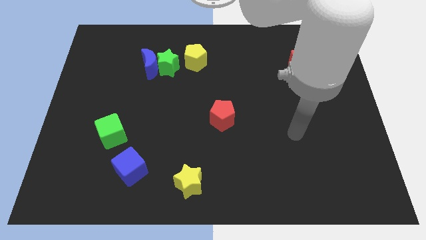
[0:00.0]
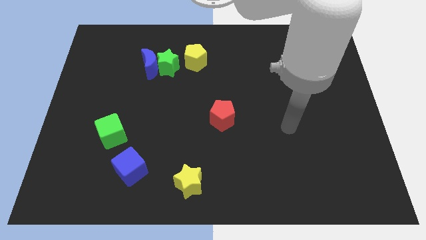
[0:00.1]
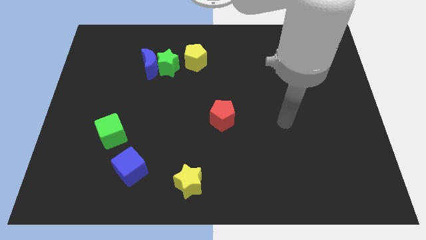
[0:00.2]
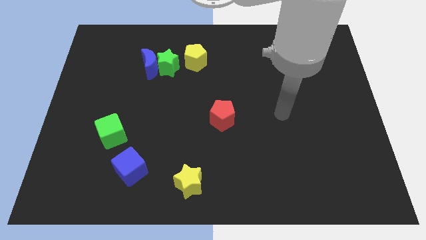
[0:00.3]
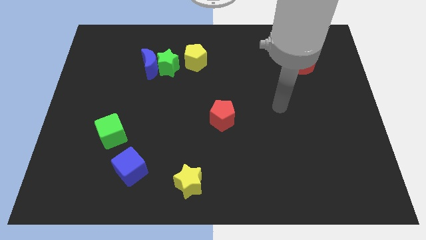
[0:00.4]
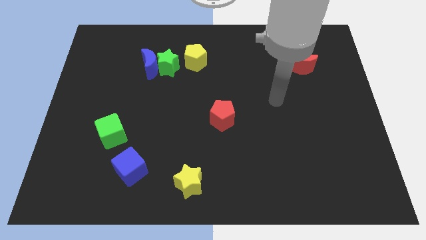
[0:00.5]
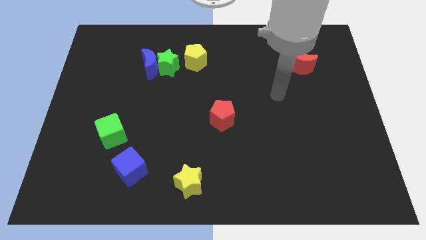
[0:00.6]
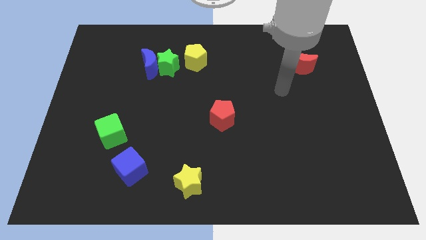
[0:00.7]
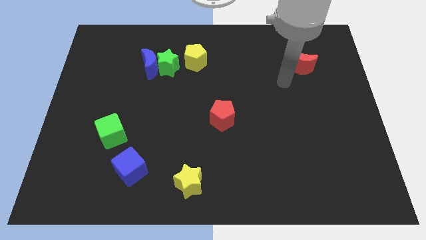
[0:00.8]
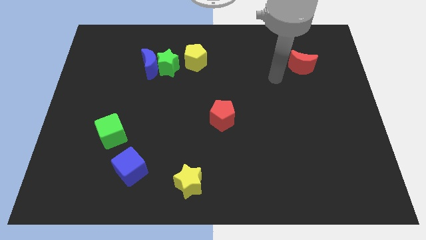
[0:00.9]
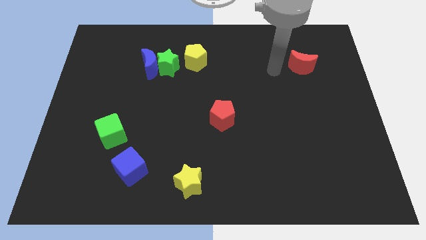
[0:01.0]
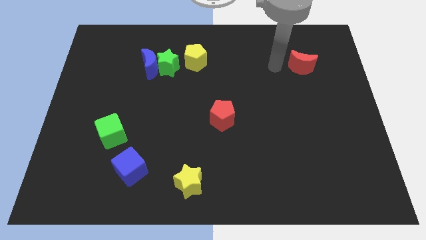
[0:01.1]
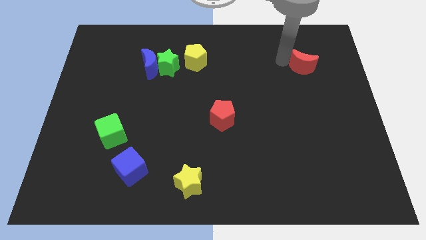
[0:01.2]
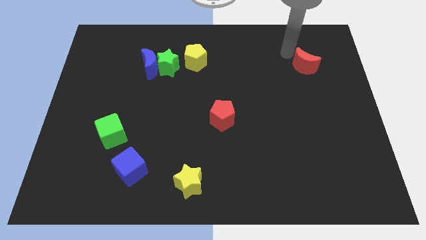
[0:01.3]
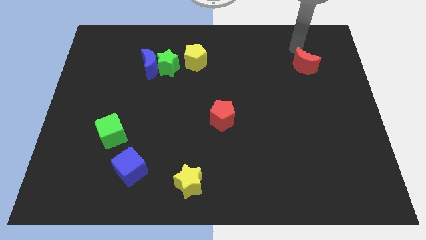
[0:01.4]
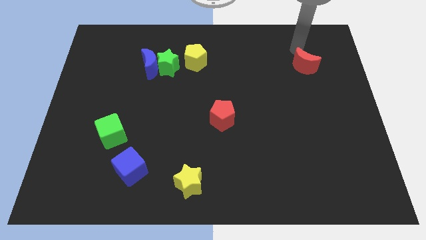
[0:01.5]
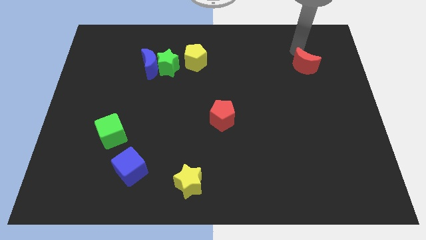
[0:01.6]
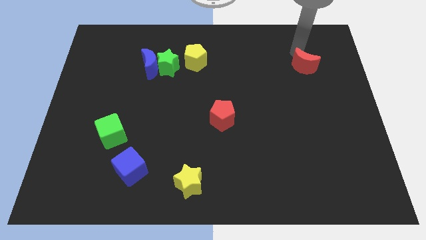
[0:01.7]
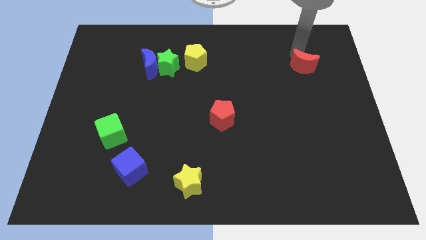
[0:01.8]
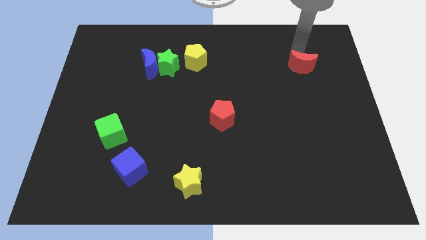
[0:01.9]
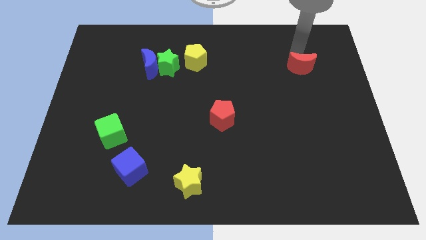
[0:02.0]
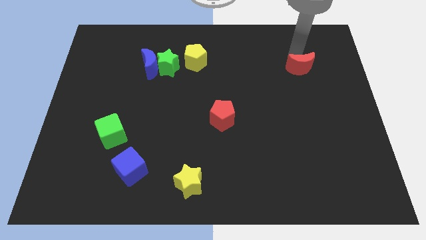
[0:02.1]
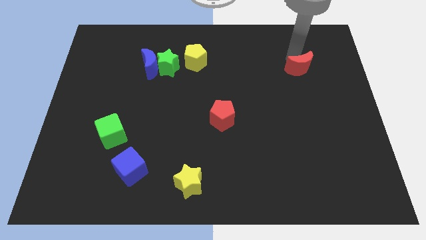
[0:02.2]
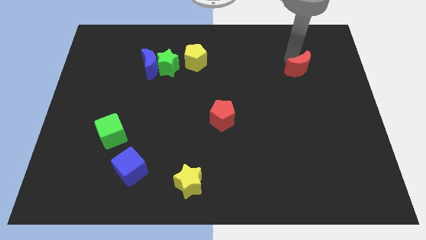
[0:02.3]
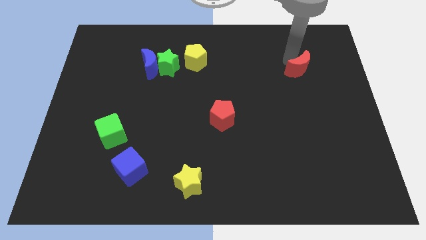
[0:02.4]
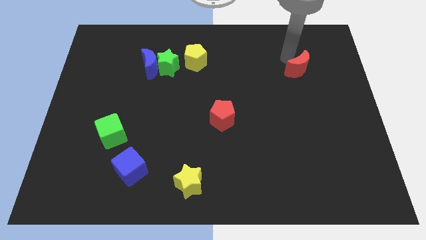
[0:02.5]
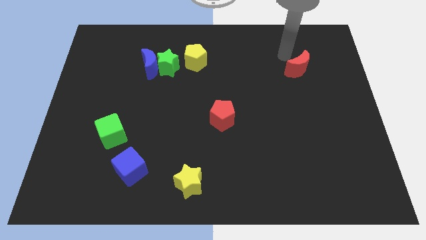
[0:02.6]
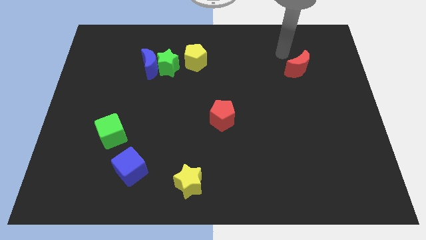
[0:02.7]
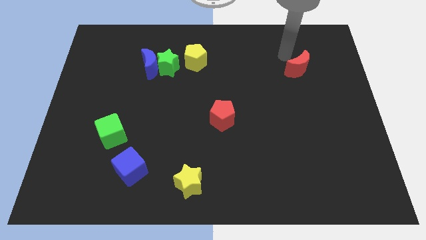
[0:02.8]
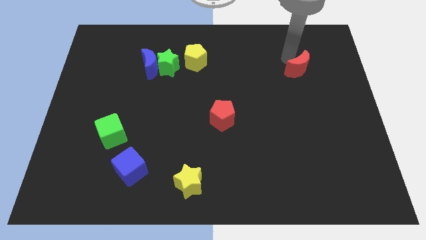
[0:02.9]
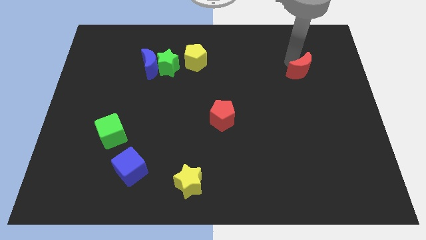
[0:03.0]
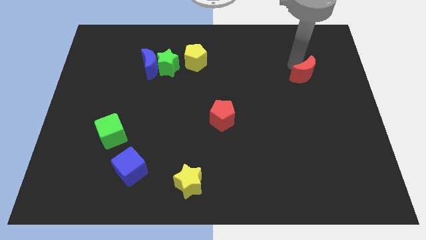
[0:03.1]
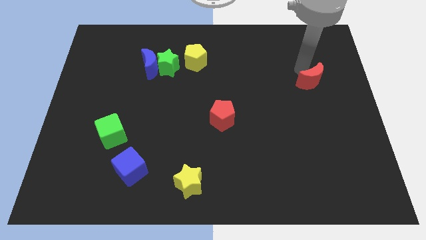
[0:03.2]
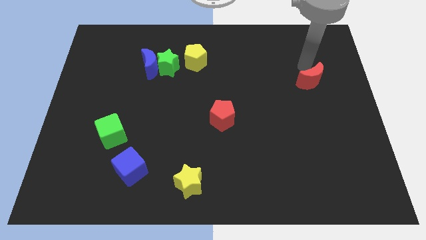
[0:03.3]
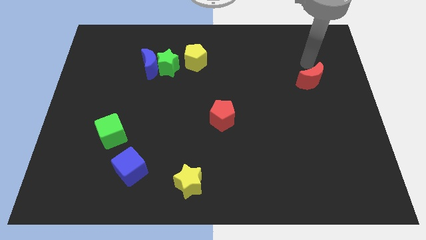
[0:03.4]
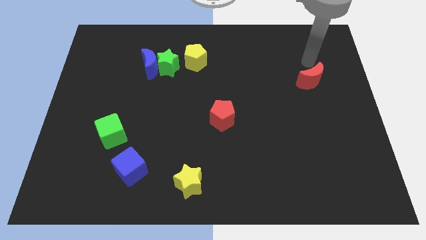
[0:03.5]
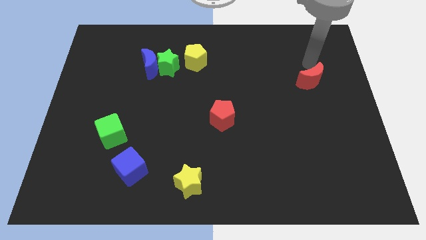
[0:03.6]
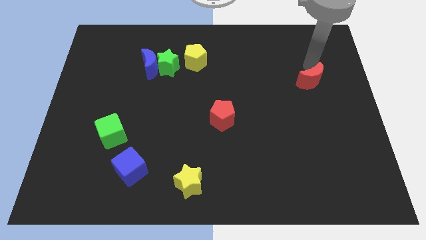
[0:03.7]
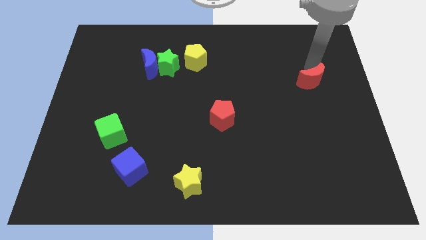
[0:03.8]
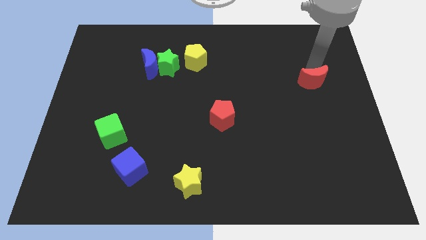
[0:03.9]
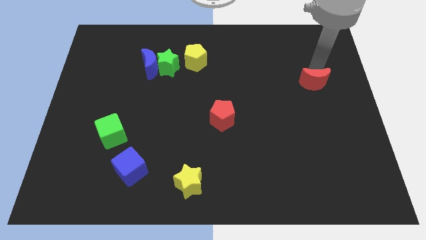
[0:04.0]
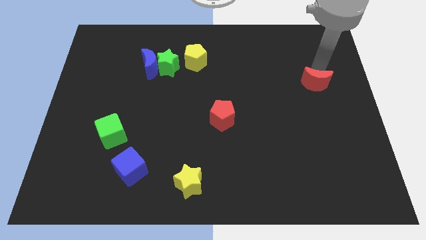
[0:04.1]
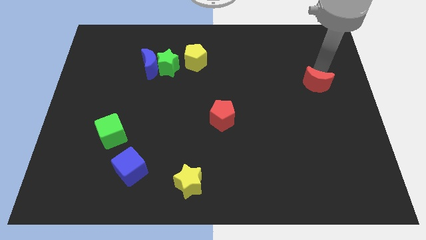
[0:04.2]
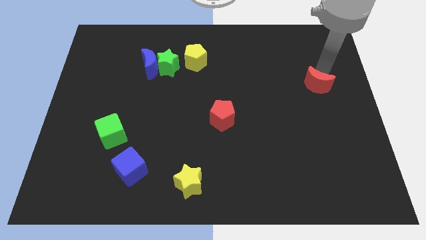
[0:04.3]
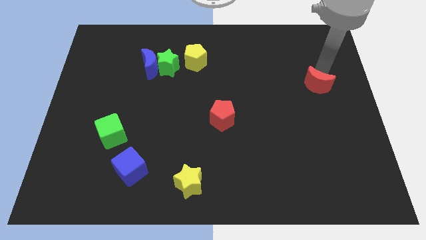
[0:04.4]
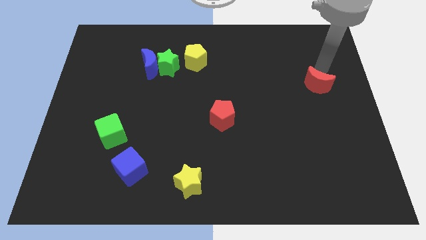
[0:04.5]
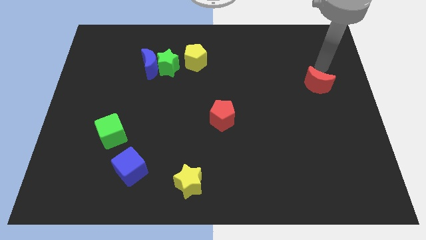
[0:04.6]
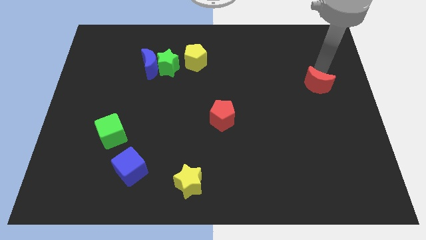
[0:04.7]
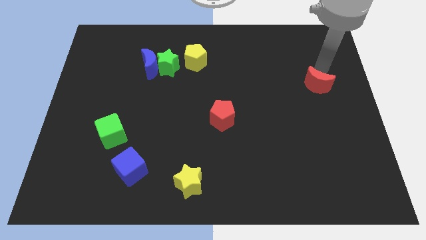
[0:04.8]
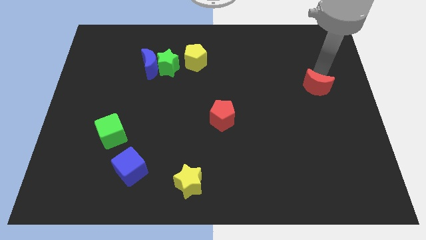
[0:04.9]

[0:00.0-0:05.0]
slightly push the red moon down

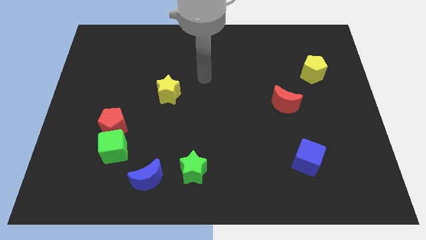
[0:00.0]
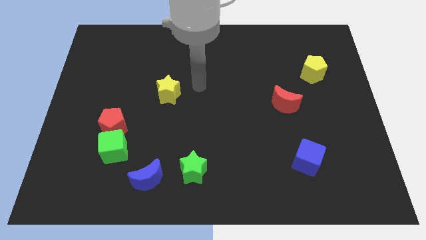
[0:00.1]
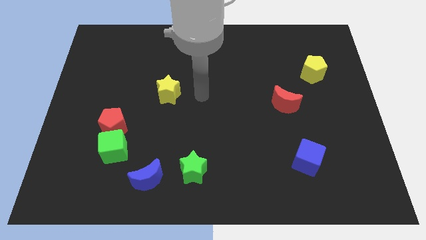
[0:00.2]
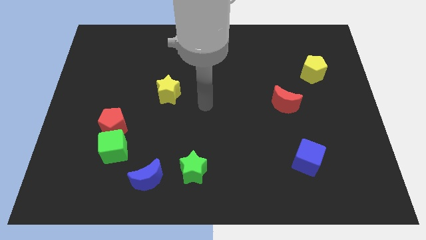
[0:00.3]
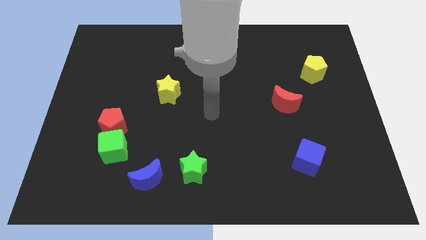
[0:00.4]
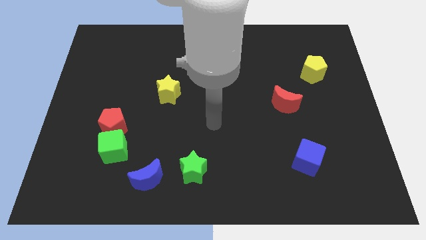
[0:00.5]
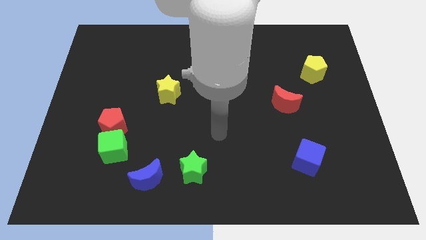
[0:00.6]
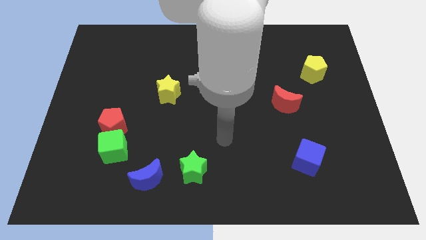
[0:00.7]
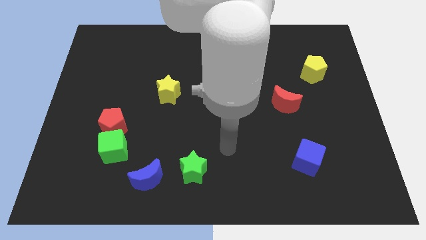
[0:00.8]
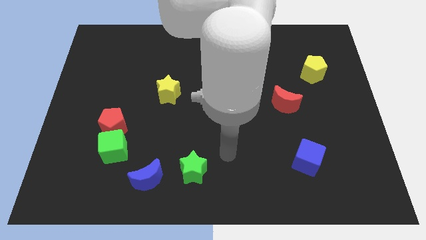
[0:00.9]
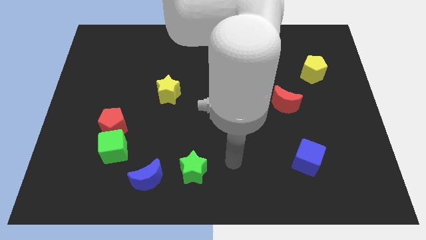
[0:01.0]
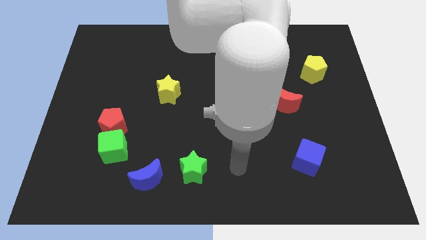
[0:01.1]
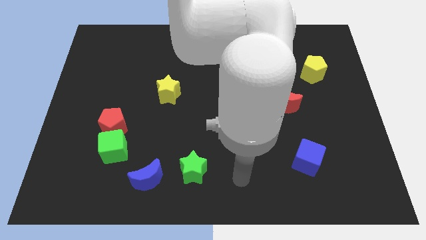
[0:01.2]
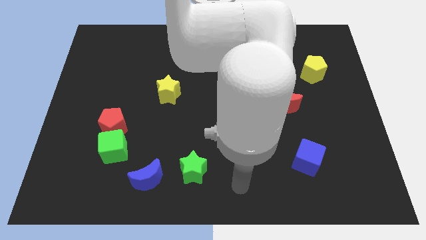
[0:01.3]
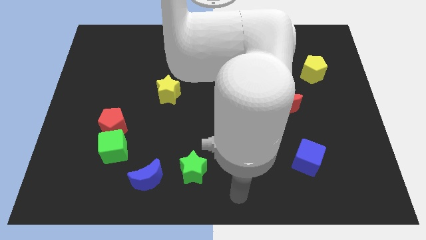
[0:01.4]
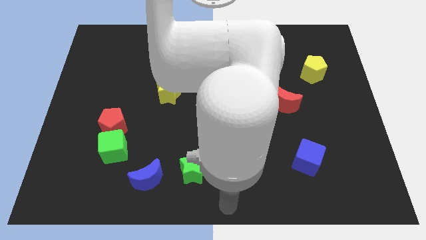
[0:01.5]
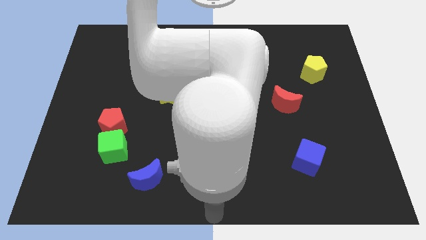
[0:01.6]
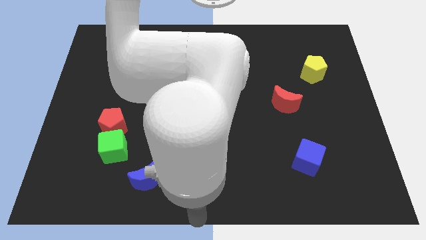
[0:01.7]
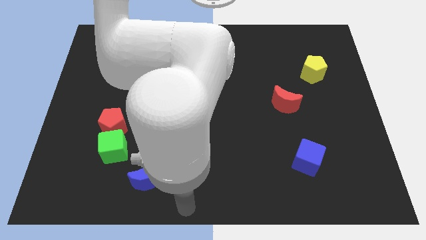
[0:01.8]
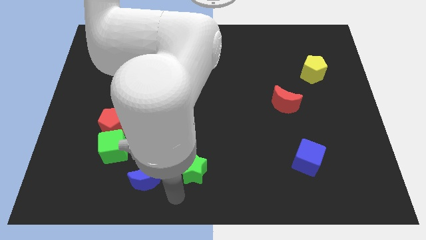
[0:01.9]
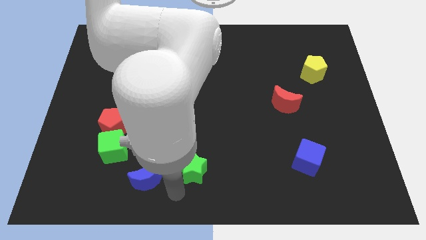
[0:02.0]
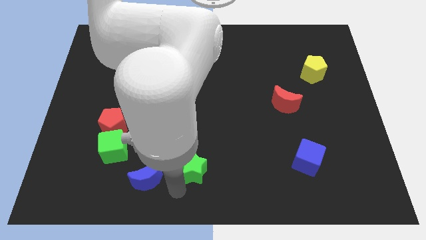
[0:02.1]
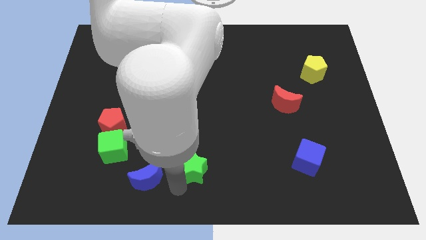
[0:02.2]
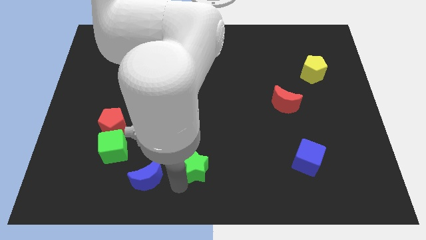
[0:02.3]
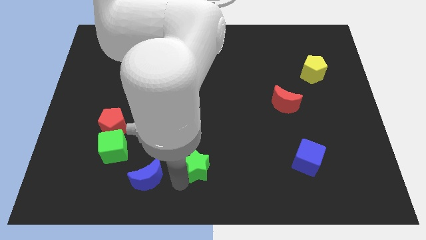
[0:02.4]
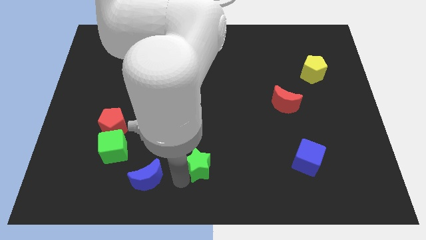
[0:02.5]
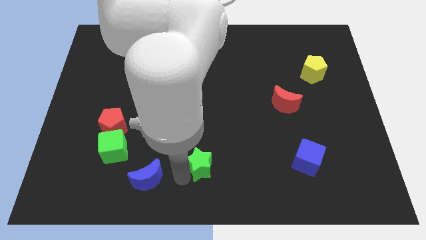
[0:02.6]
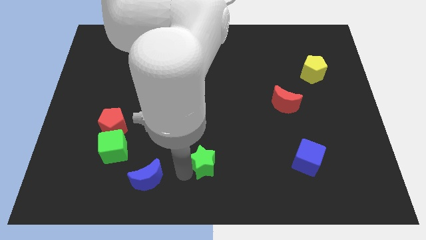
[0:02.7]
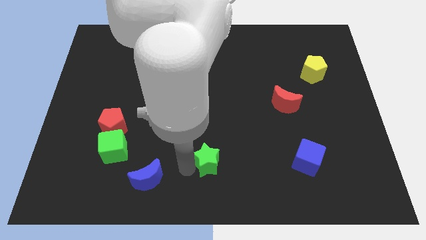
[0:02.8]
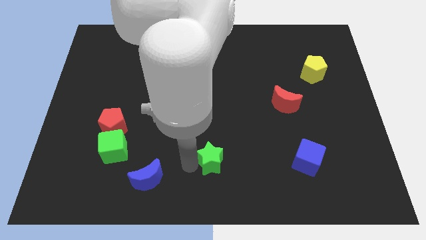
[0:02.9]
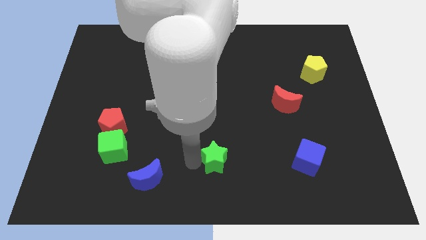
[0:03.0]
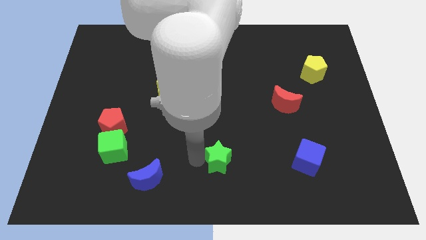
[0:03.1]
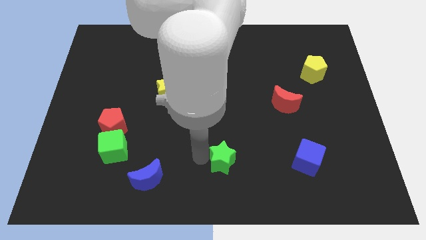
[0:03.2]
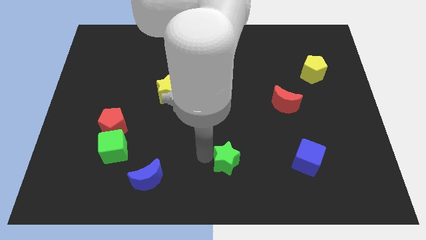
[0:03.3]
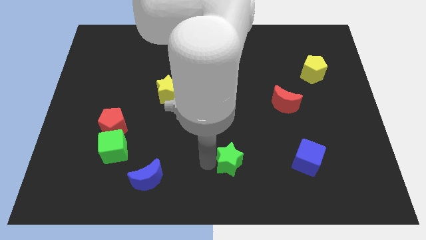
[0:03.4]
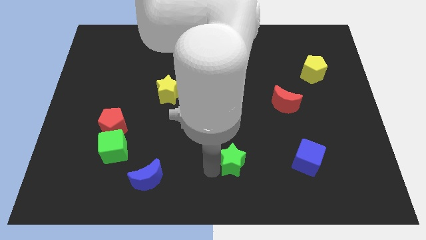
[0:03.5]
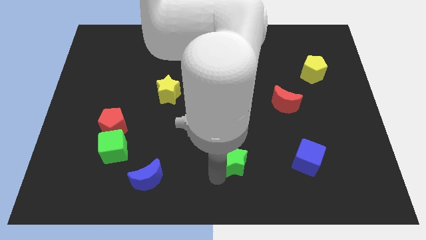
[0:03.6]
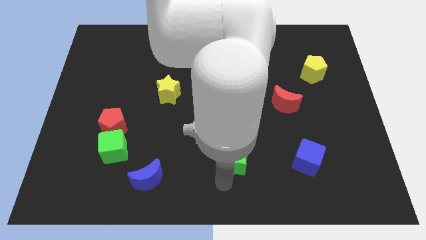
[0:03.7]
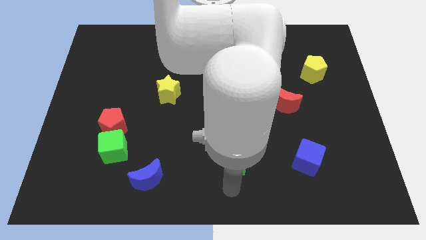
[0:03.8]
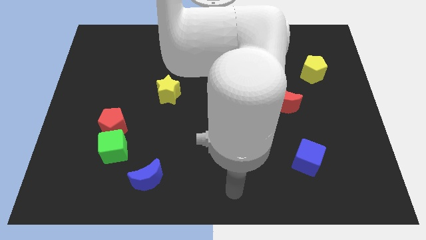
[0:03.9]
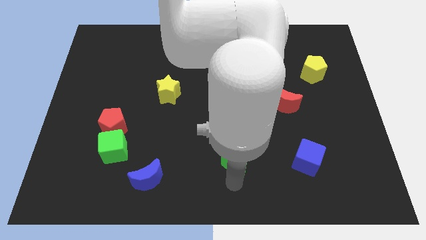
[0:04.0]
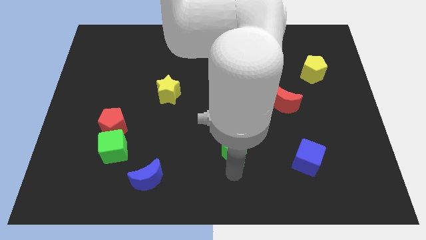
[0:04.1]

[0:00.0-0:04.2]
slide the green star somewhat upwards and to the right diagonally
